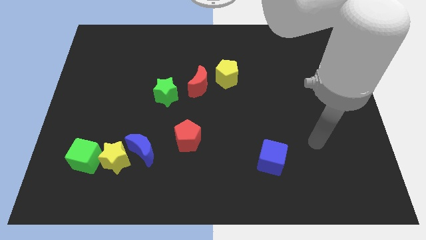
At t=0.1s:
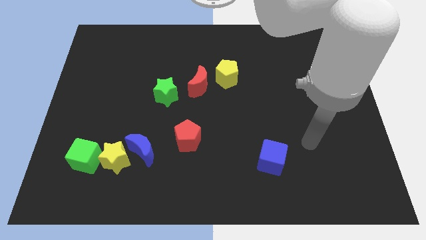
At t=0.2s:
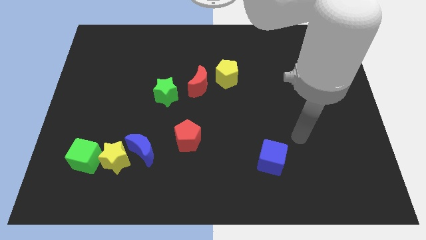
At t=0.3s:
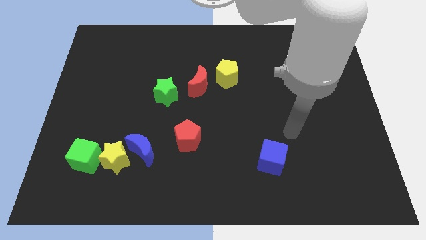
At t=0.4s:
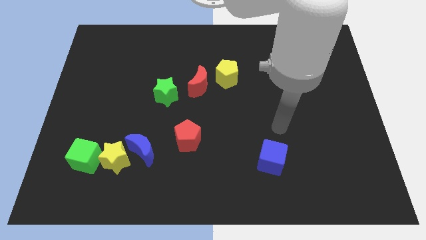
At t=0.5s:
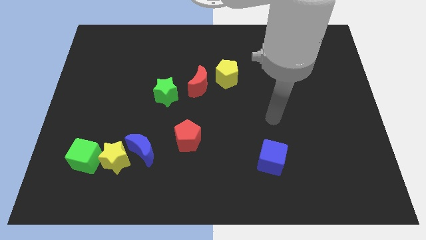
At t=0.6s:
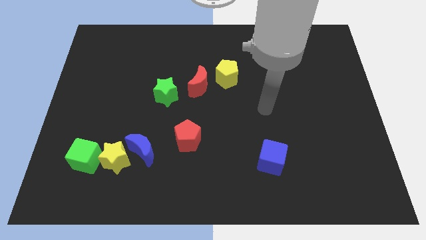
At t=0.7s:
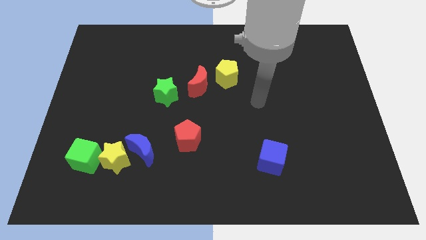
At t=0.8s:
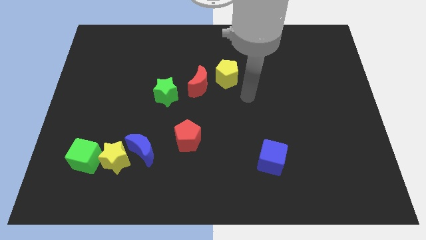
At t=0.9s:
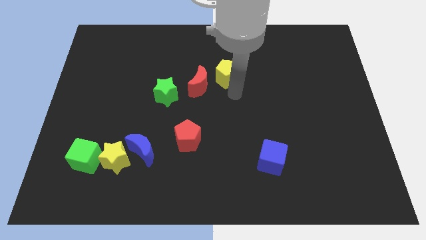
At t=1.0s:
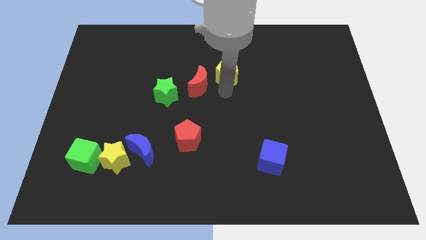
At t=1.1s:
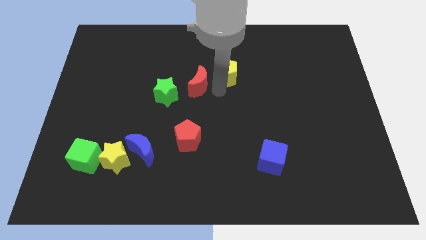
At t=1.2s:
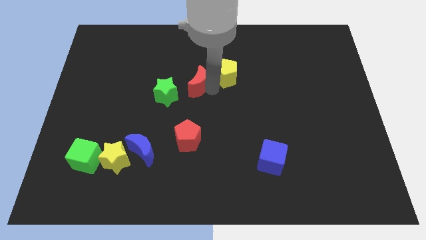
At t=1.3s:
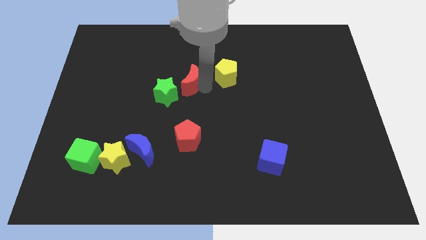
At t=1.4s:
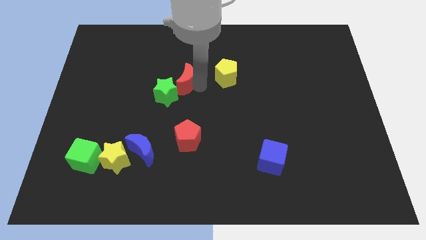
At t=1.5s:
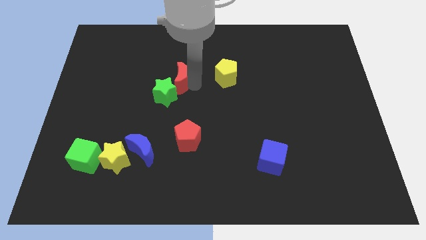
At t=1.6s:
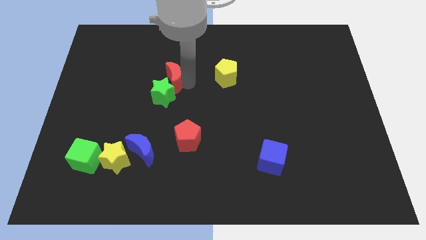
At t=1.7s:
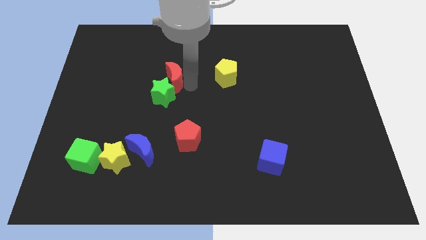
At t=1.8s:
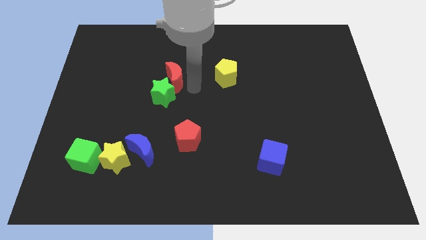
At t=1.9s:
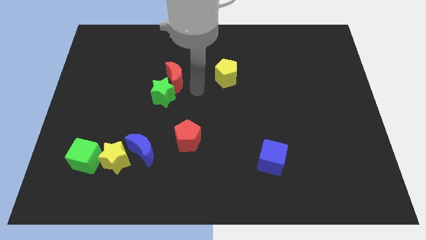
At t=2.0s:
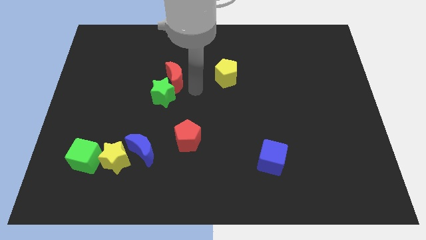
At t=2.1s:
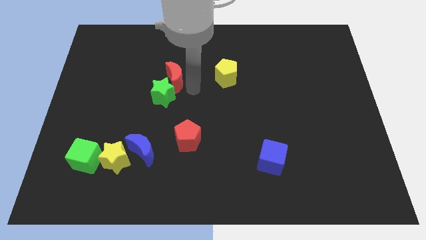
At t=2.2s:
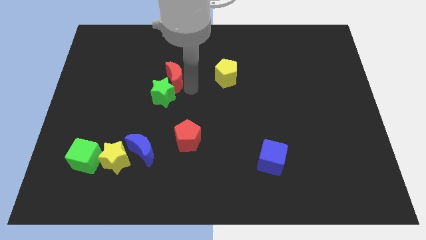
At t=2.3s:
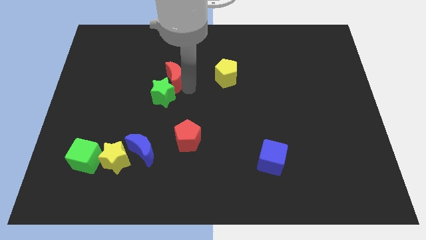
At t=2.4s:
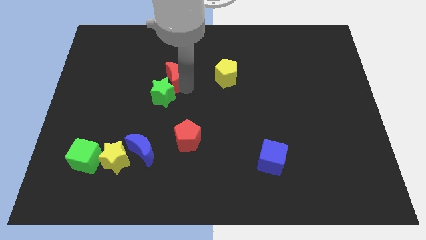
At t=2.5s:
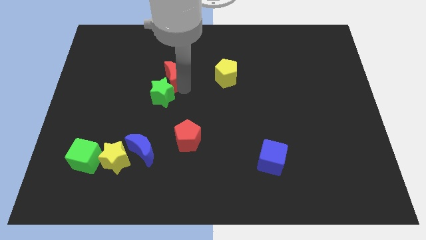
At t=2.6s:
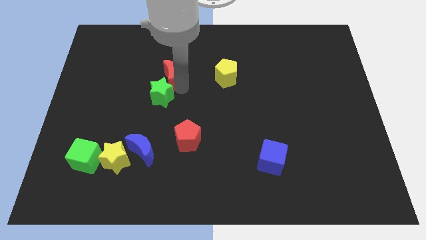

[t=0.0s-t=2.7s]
slightly move the red moon to the left

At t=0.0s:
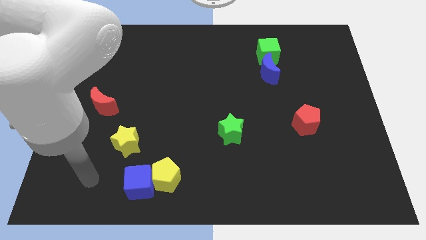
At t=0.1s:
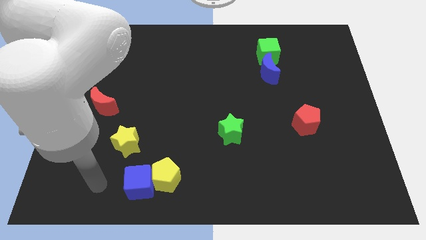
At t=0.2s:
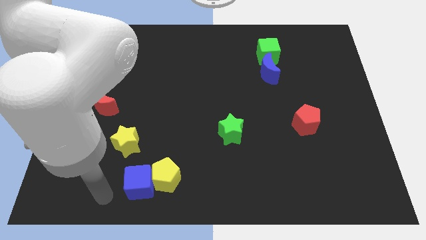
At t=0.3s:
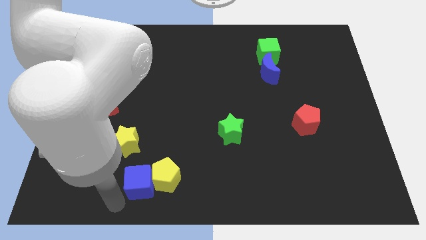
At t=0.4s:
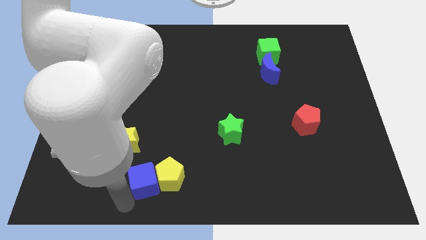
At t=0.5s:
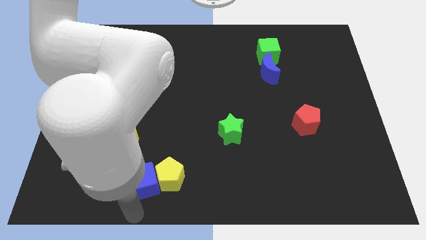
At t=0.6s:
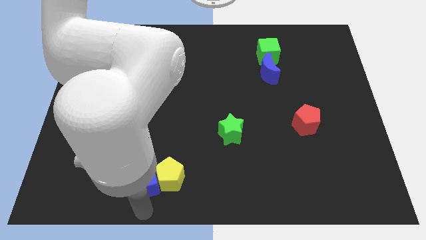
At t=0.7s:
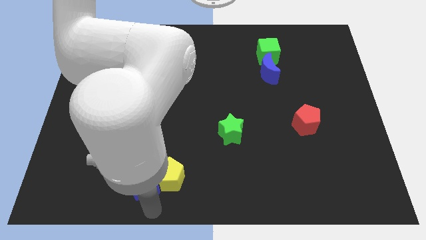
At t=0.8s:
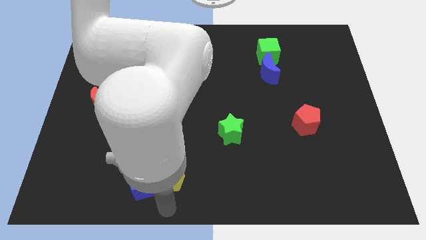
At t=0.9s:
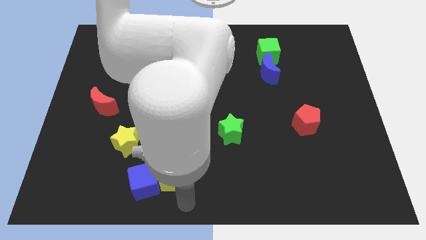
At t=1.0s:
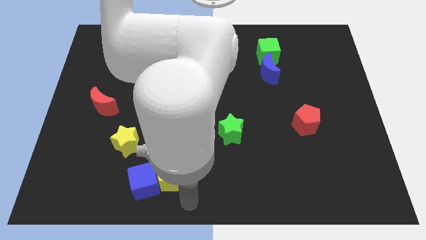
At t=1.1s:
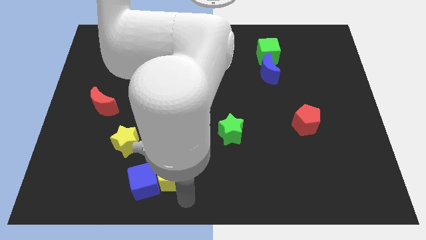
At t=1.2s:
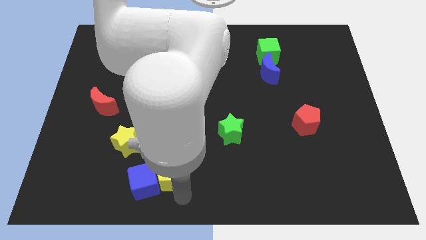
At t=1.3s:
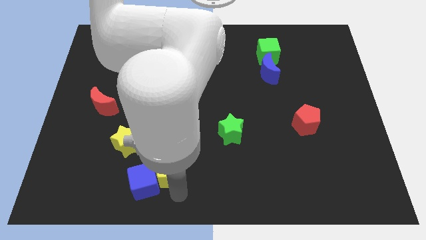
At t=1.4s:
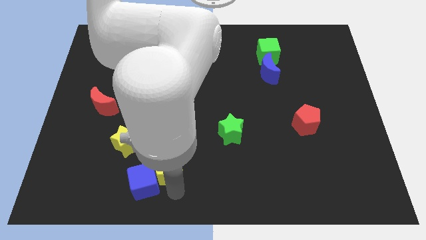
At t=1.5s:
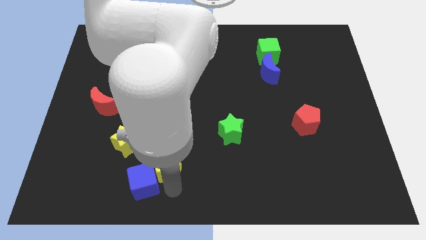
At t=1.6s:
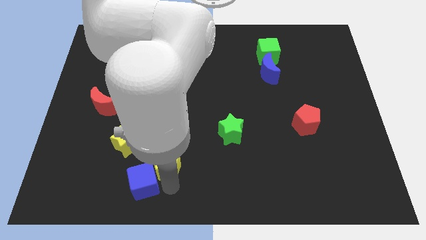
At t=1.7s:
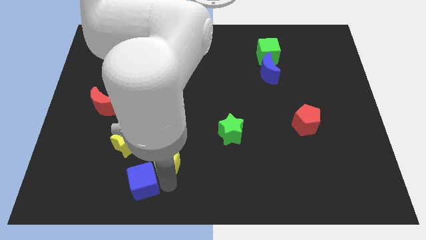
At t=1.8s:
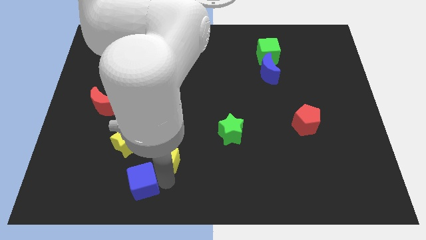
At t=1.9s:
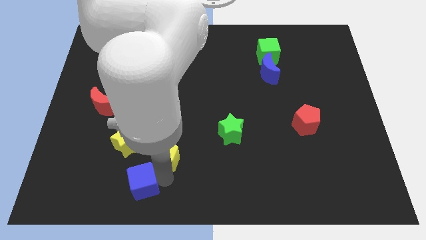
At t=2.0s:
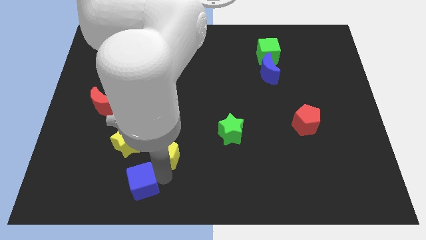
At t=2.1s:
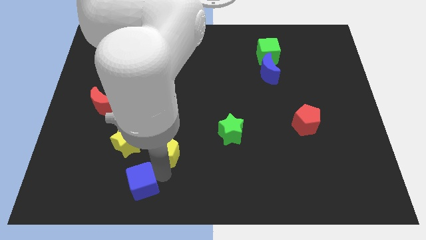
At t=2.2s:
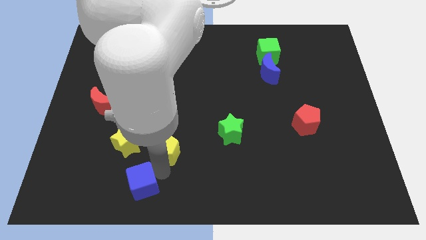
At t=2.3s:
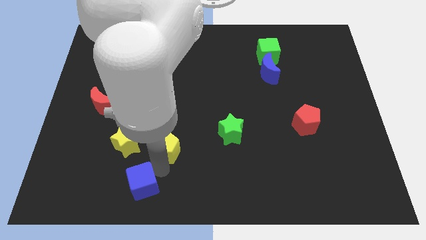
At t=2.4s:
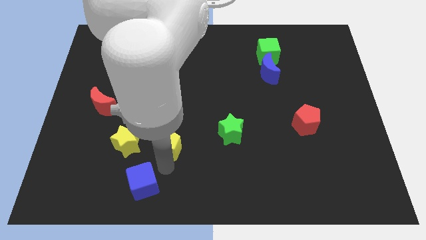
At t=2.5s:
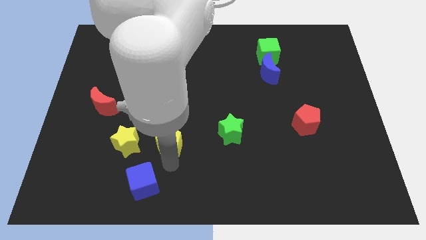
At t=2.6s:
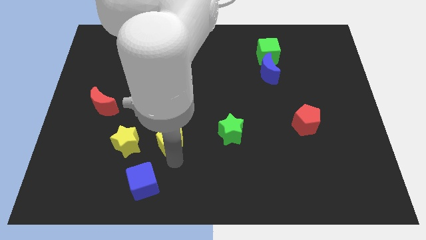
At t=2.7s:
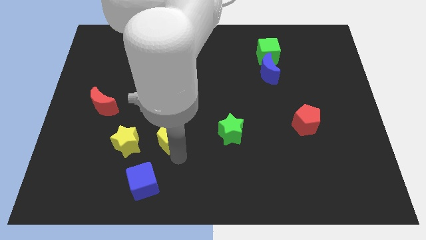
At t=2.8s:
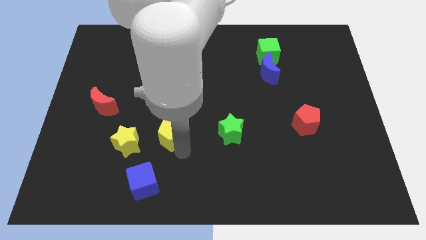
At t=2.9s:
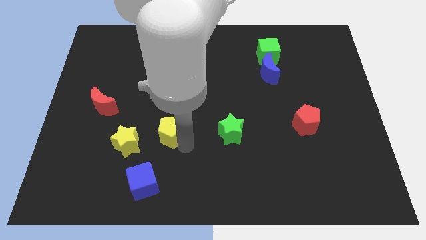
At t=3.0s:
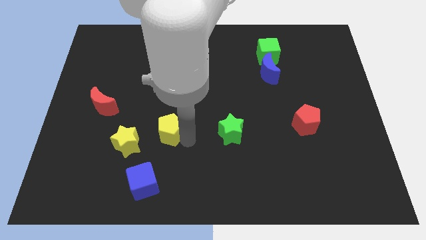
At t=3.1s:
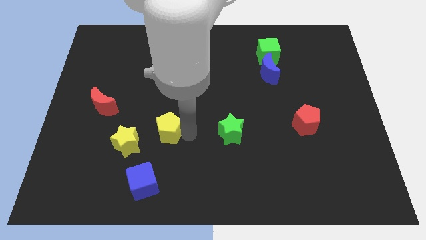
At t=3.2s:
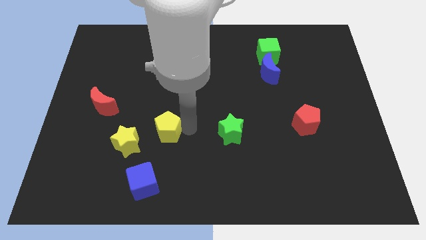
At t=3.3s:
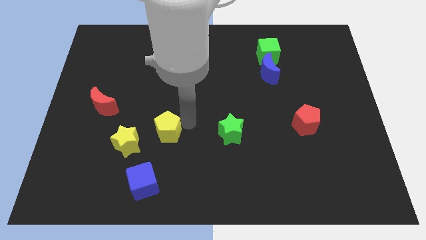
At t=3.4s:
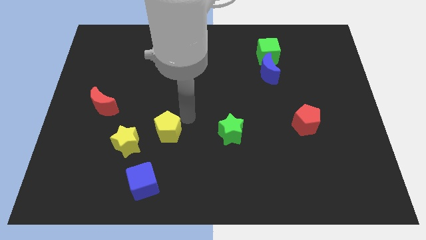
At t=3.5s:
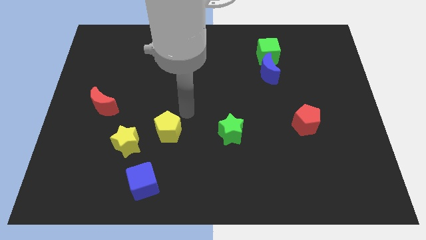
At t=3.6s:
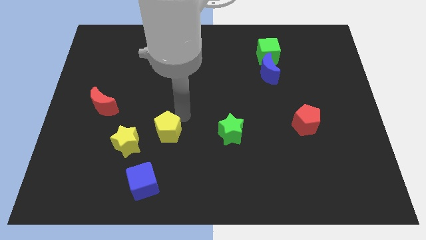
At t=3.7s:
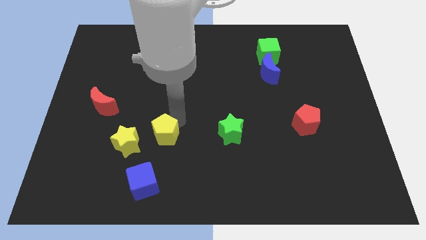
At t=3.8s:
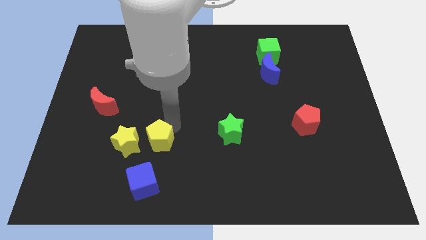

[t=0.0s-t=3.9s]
push the yellow pentagon upwards and then to the left a bit

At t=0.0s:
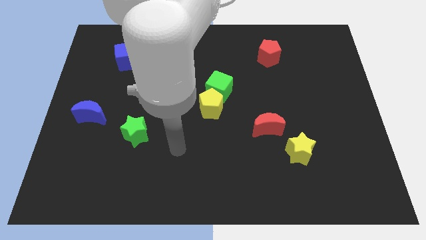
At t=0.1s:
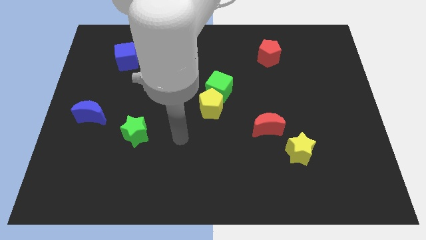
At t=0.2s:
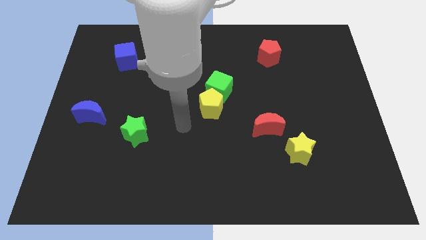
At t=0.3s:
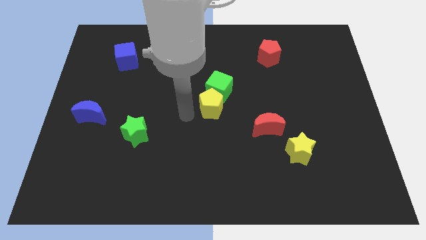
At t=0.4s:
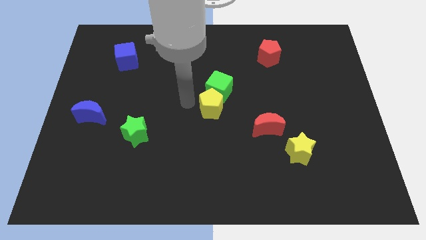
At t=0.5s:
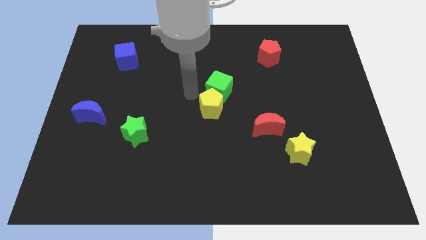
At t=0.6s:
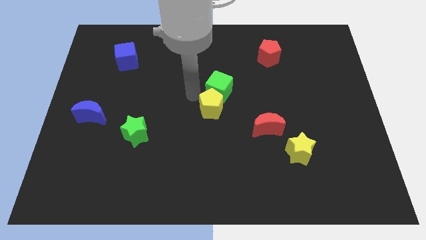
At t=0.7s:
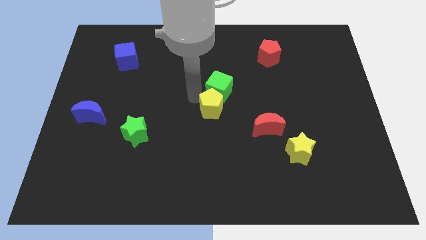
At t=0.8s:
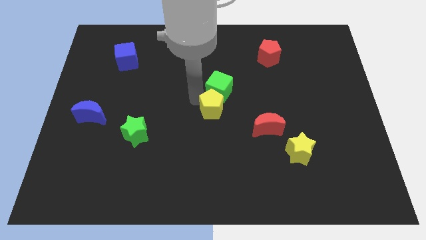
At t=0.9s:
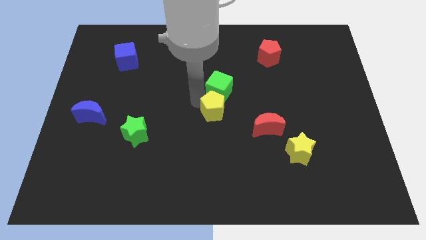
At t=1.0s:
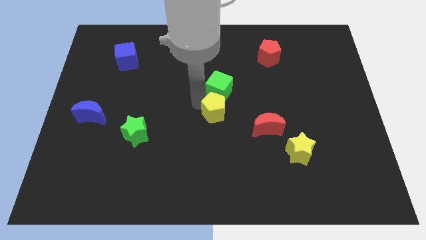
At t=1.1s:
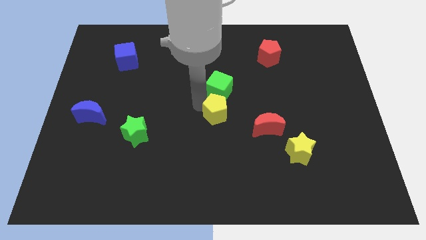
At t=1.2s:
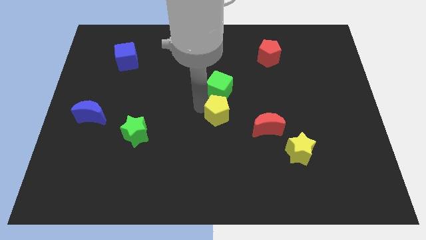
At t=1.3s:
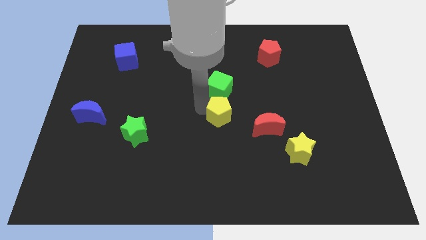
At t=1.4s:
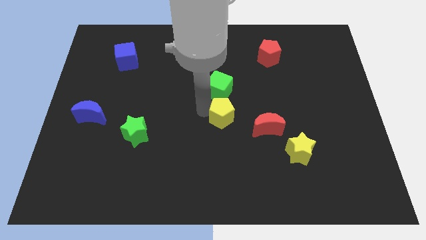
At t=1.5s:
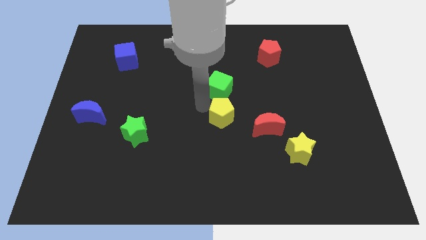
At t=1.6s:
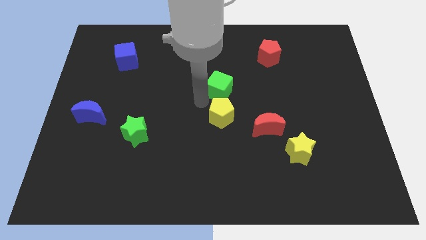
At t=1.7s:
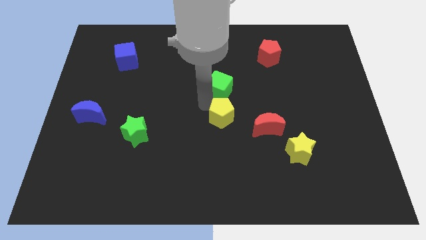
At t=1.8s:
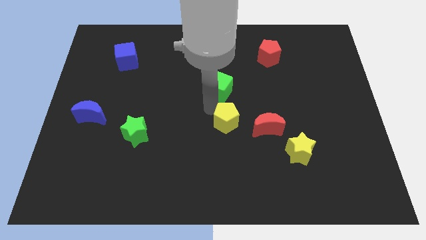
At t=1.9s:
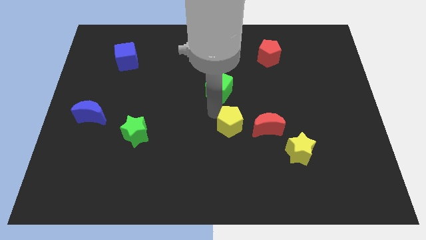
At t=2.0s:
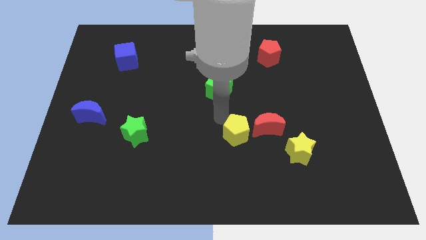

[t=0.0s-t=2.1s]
slightly move the yellow pentagon diagonally down and right
